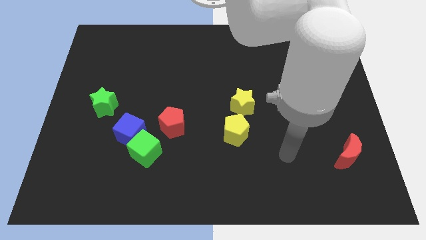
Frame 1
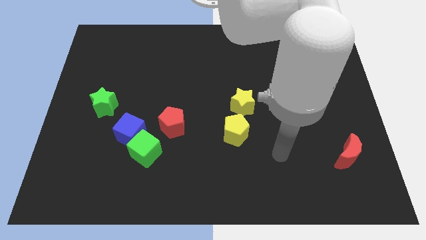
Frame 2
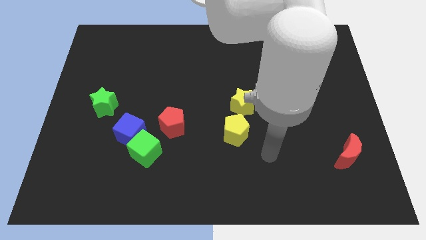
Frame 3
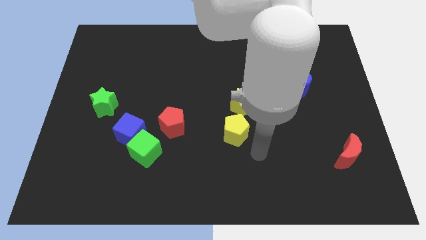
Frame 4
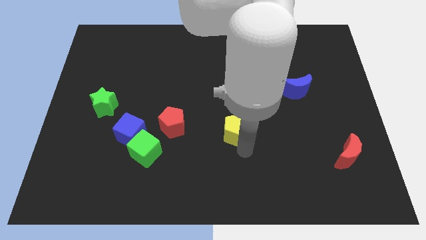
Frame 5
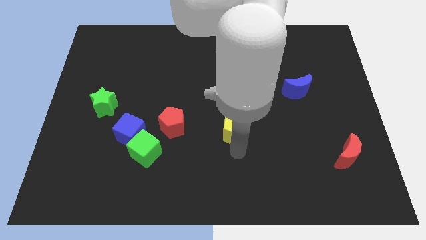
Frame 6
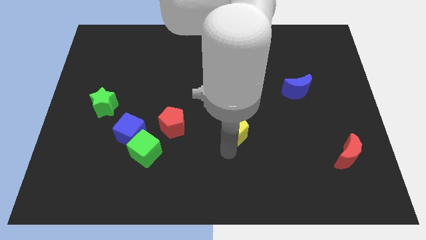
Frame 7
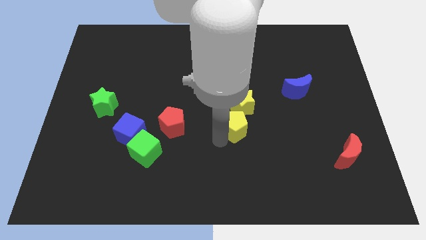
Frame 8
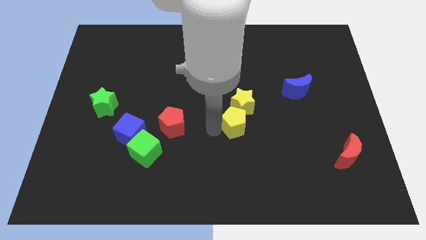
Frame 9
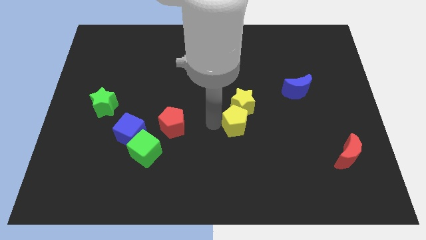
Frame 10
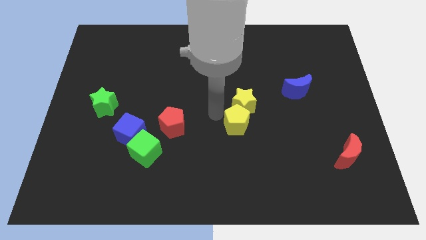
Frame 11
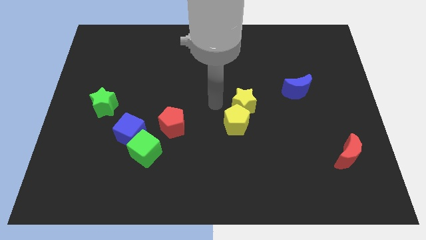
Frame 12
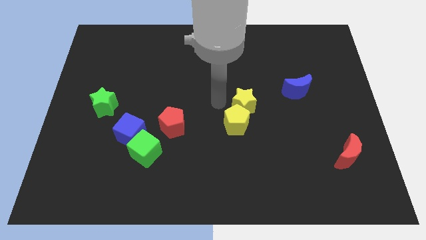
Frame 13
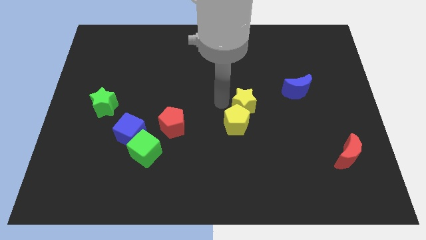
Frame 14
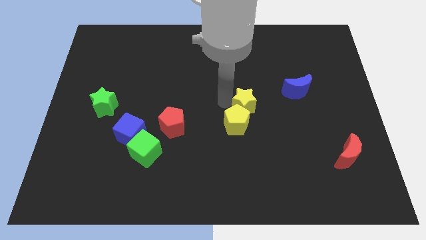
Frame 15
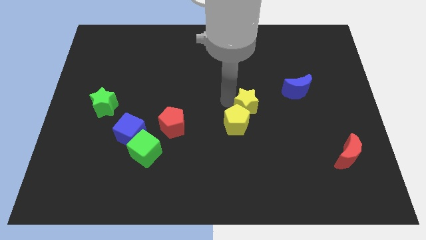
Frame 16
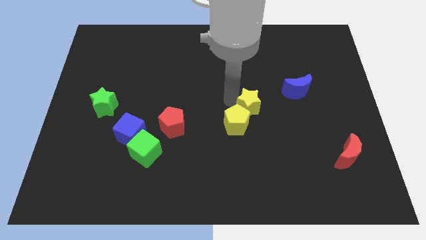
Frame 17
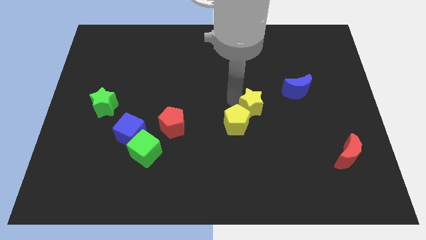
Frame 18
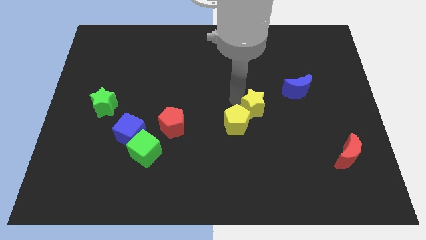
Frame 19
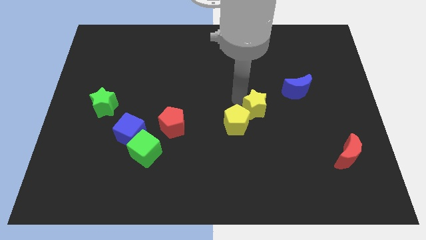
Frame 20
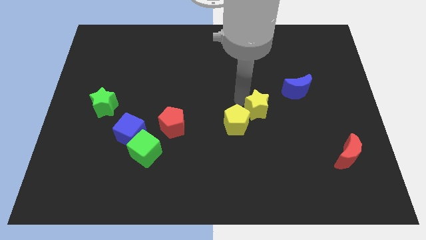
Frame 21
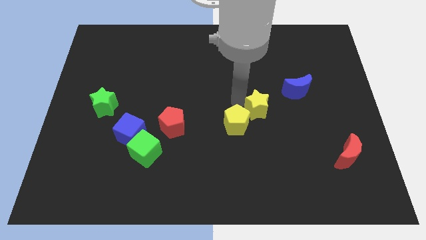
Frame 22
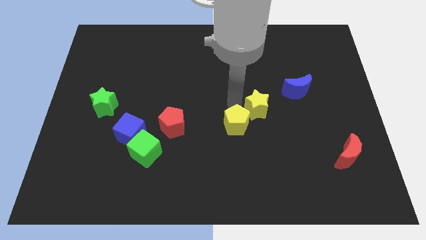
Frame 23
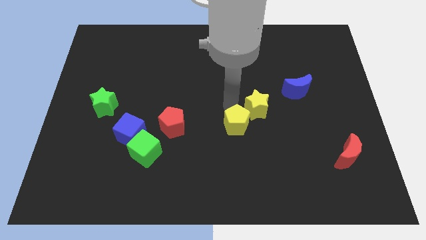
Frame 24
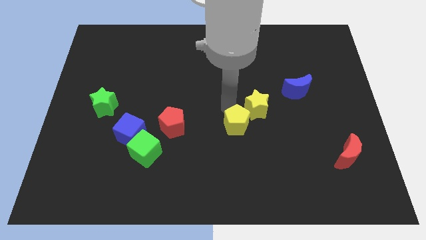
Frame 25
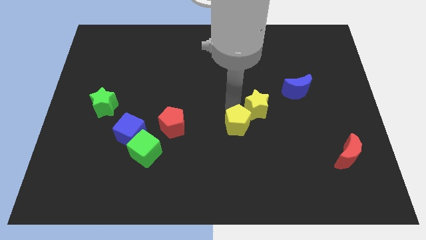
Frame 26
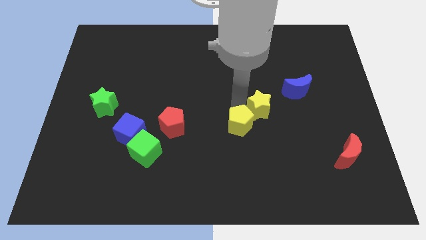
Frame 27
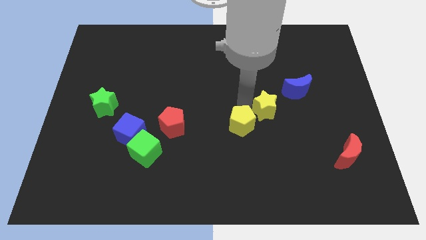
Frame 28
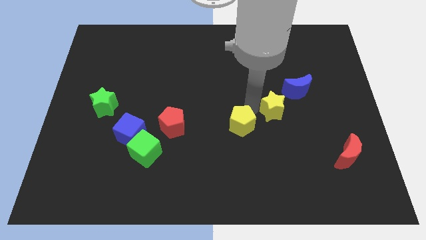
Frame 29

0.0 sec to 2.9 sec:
move the yellow star a bit to the right

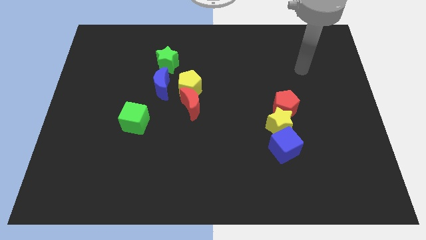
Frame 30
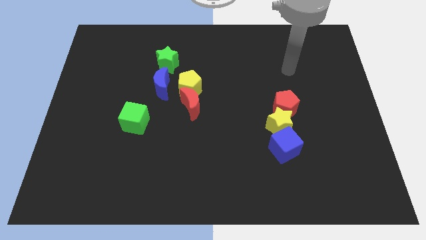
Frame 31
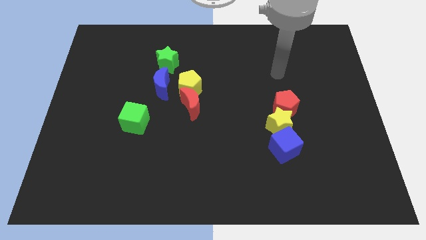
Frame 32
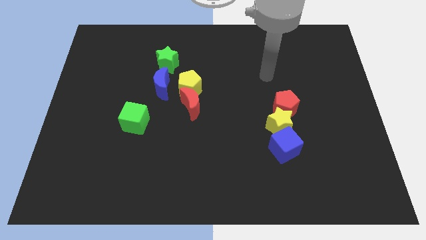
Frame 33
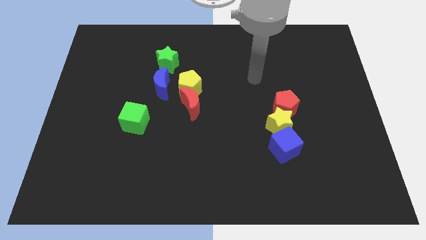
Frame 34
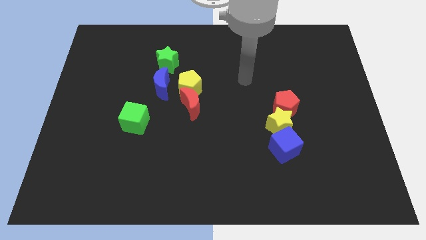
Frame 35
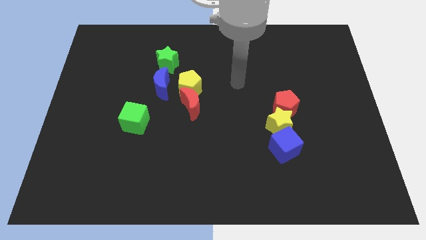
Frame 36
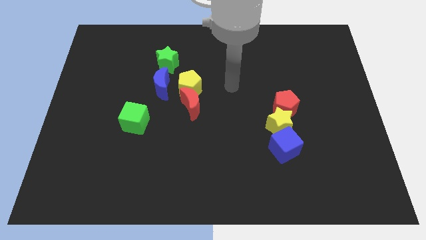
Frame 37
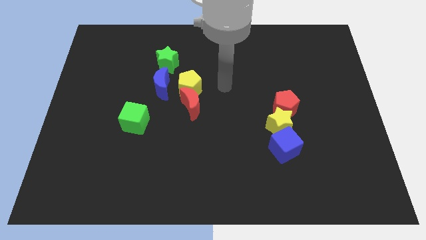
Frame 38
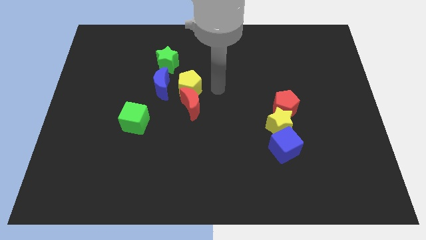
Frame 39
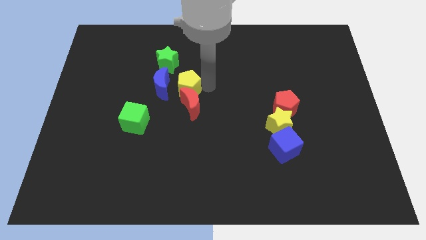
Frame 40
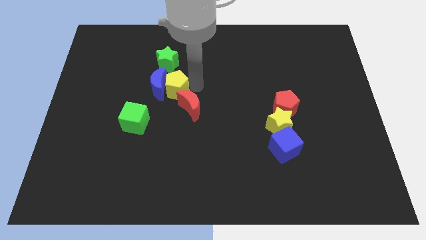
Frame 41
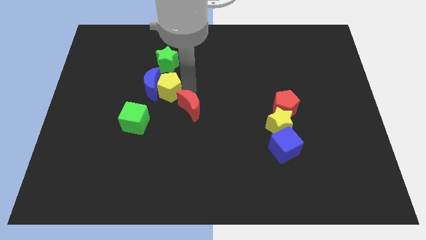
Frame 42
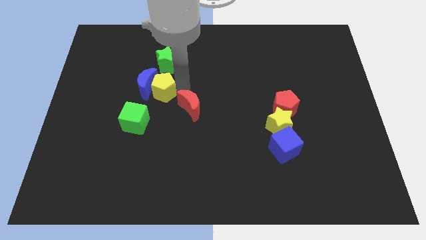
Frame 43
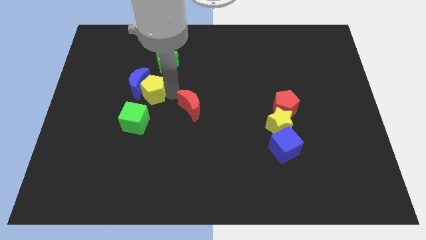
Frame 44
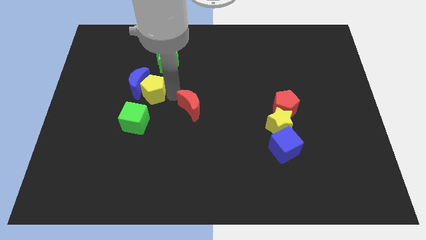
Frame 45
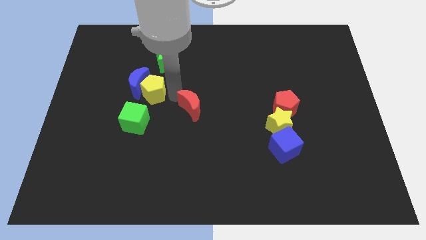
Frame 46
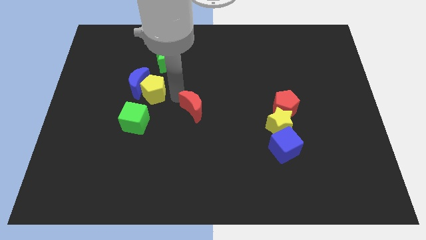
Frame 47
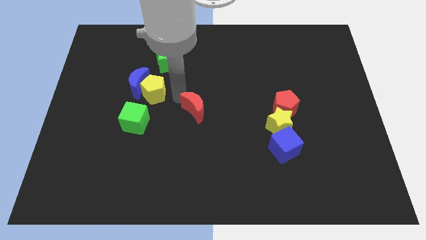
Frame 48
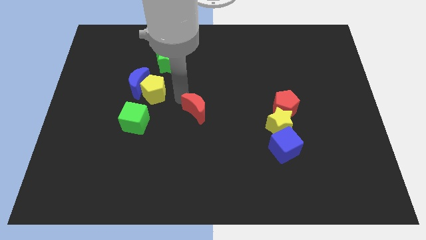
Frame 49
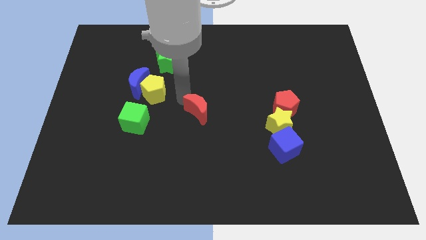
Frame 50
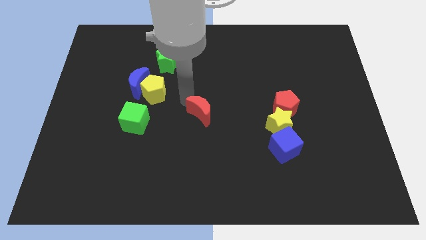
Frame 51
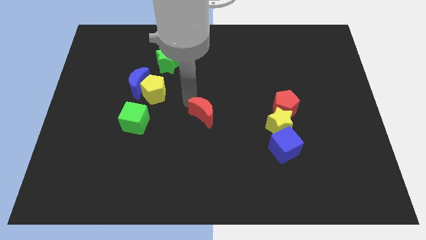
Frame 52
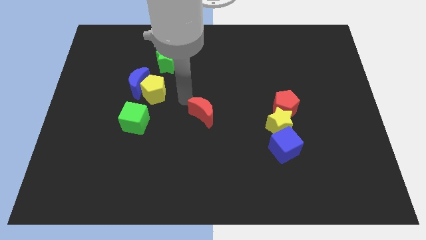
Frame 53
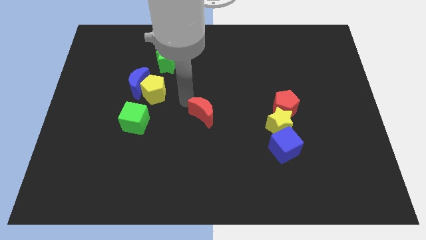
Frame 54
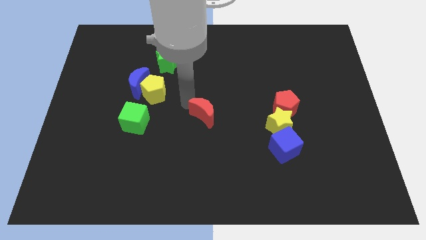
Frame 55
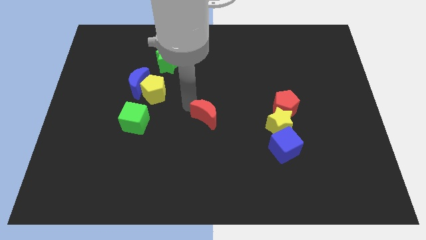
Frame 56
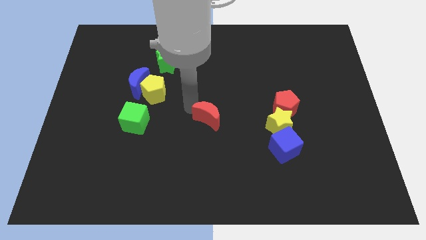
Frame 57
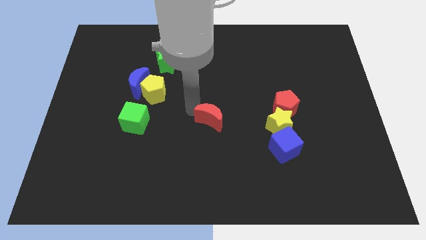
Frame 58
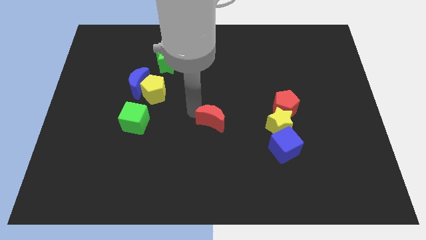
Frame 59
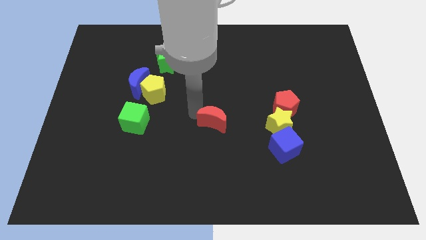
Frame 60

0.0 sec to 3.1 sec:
slightly slide the red moon diagonally down and right

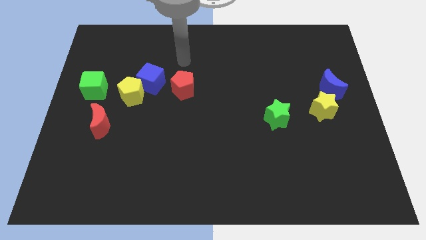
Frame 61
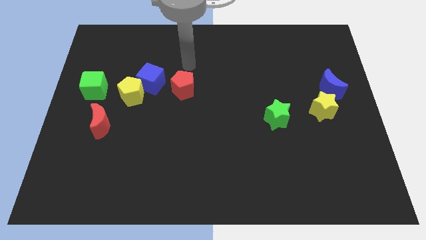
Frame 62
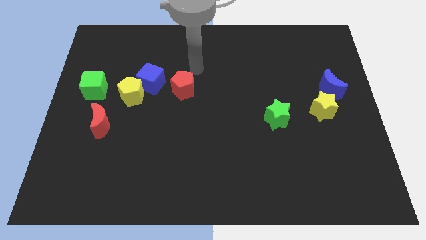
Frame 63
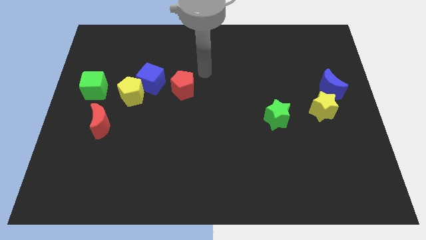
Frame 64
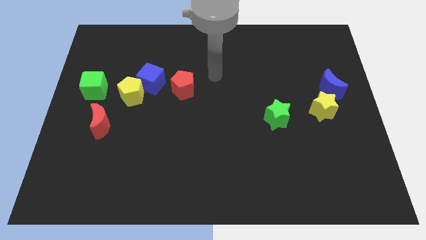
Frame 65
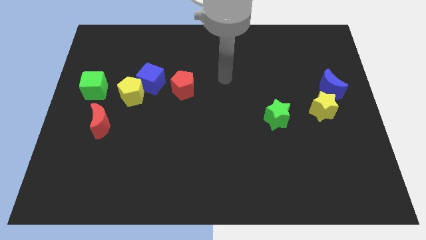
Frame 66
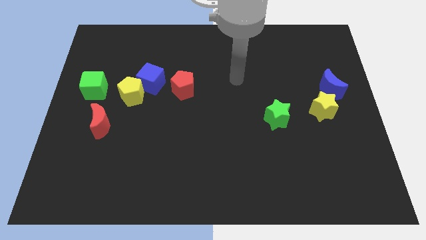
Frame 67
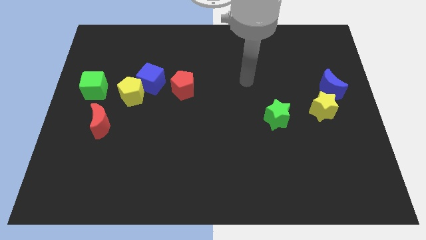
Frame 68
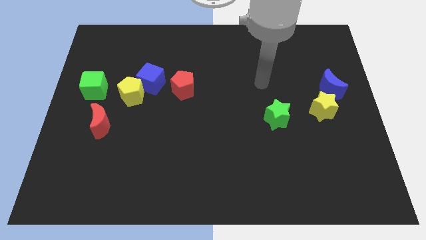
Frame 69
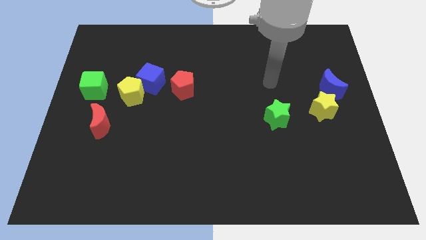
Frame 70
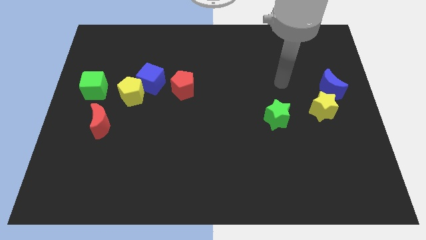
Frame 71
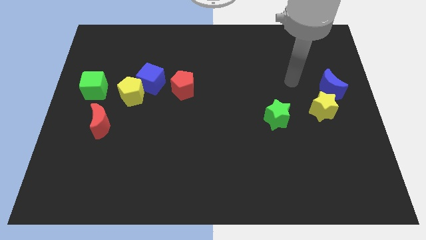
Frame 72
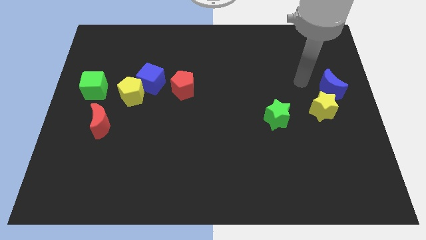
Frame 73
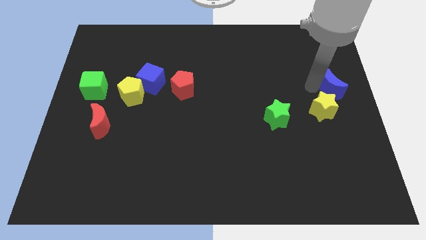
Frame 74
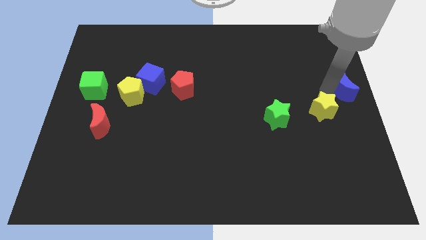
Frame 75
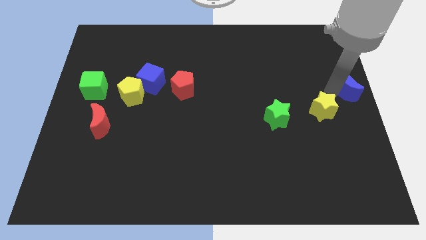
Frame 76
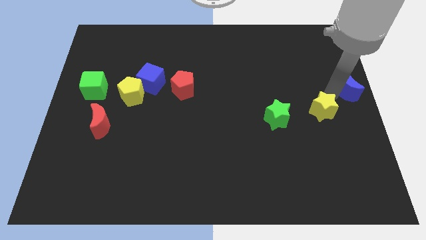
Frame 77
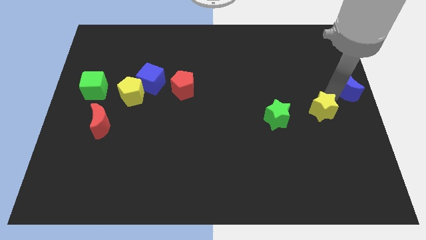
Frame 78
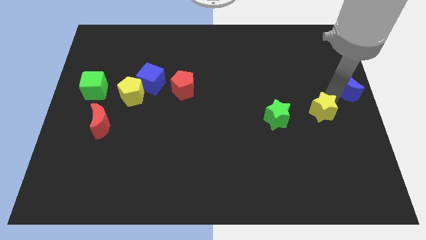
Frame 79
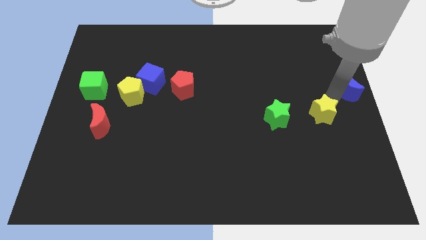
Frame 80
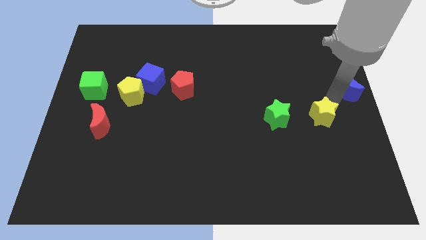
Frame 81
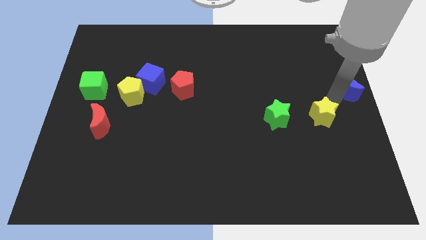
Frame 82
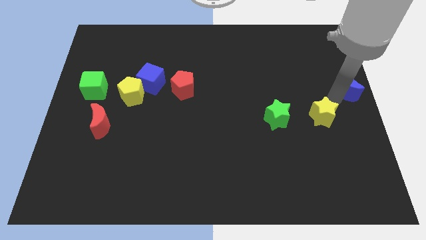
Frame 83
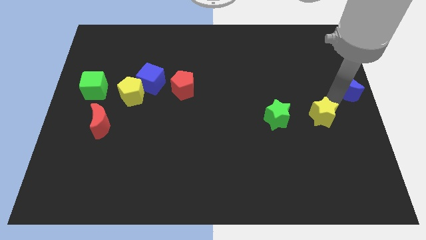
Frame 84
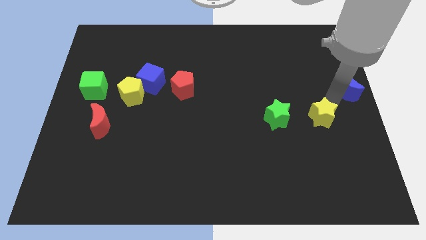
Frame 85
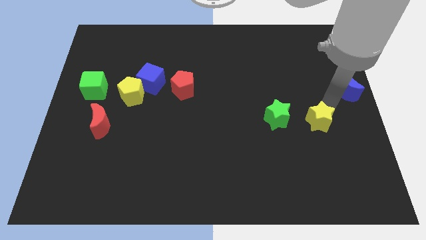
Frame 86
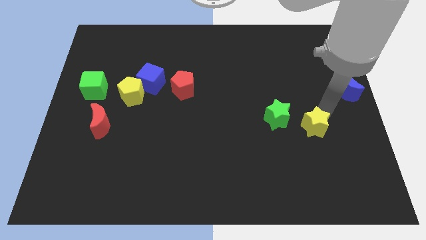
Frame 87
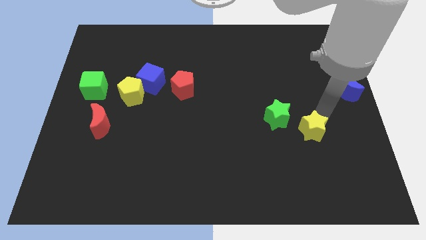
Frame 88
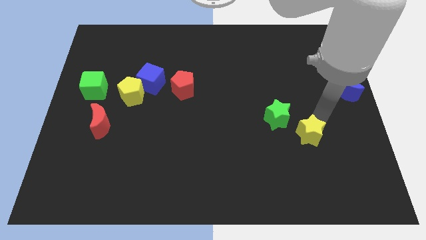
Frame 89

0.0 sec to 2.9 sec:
push the yellow star down and then to the left slightly
